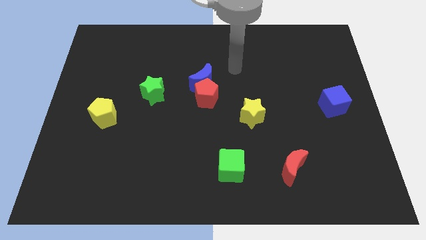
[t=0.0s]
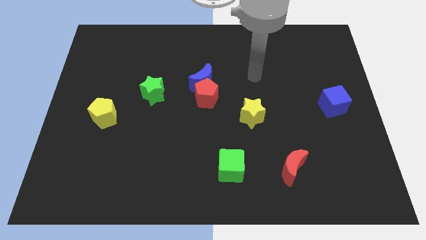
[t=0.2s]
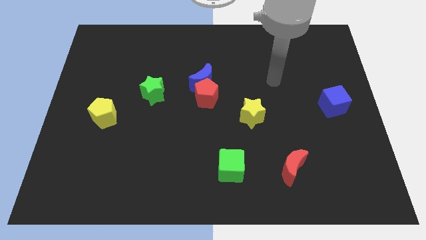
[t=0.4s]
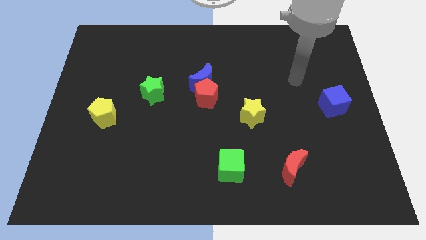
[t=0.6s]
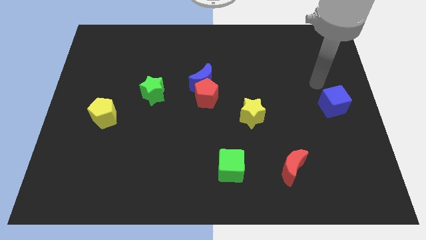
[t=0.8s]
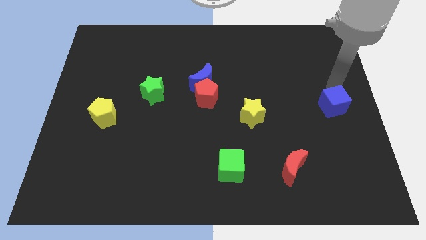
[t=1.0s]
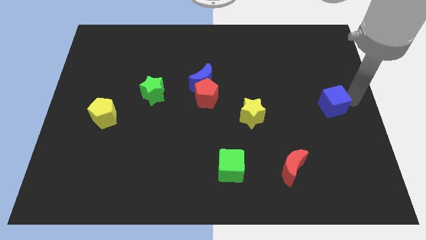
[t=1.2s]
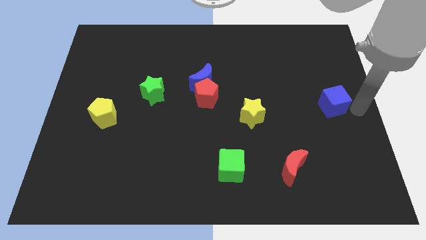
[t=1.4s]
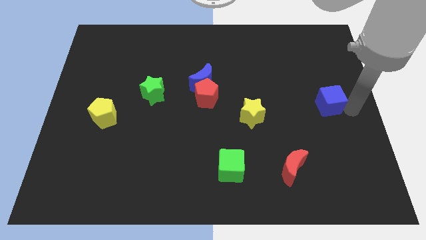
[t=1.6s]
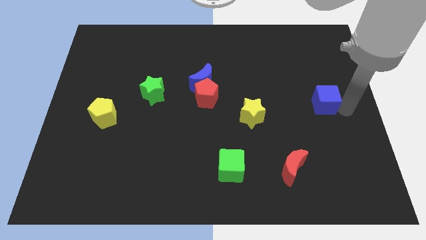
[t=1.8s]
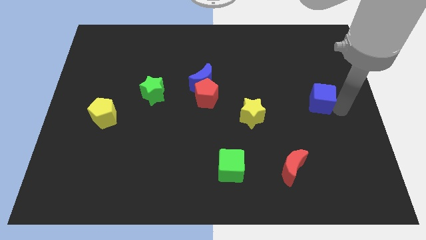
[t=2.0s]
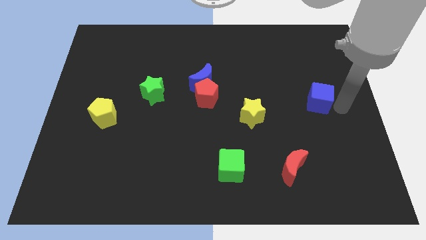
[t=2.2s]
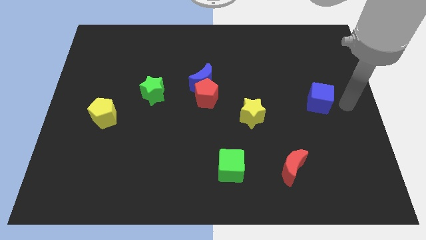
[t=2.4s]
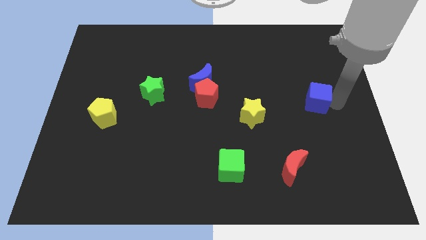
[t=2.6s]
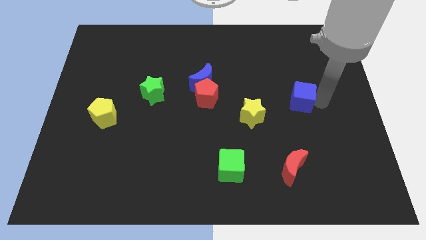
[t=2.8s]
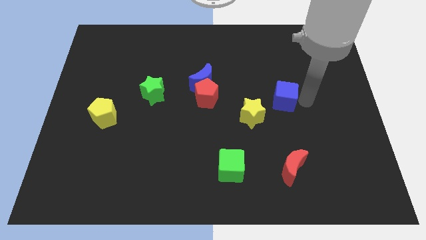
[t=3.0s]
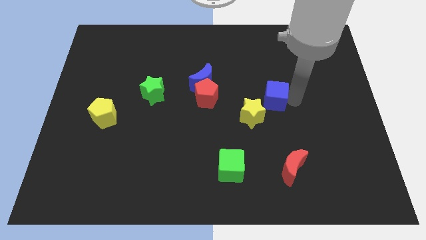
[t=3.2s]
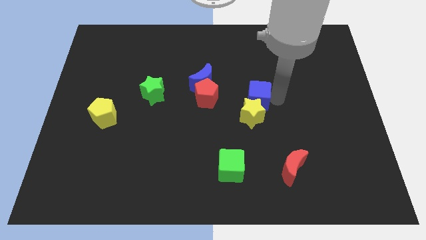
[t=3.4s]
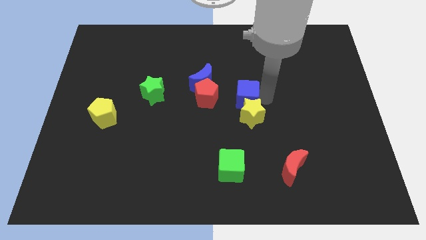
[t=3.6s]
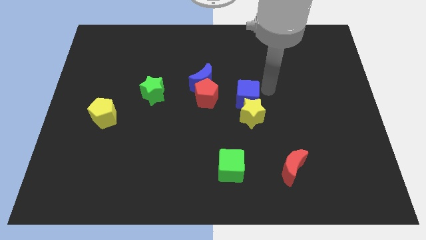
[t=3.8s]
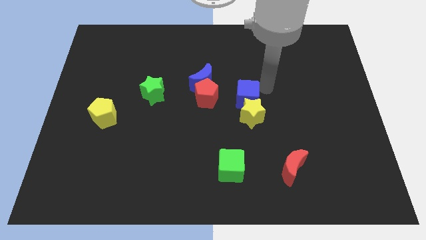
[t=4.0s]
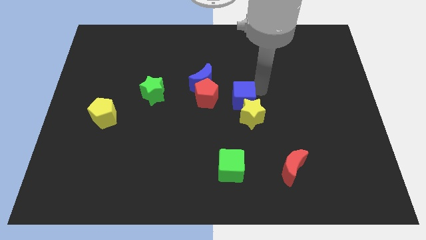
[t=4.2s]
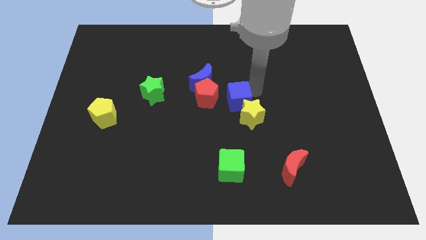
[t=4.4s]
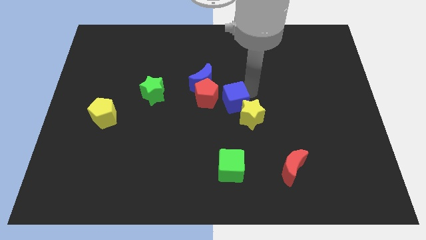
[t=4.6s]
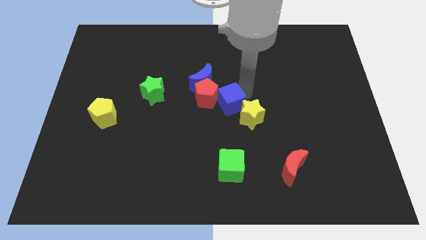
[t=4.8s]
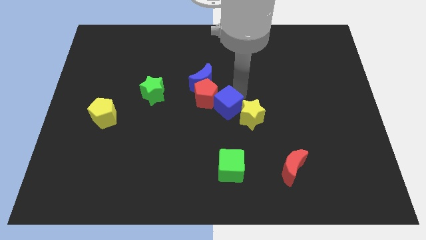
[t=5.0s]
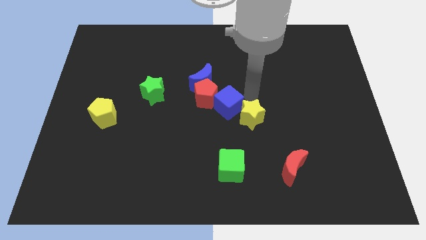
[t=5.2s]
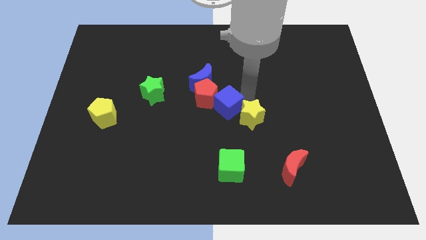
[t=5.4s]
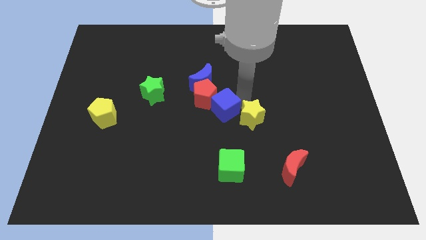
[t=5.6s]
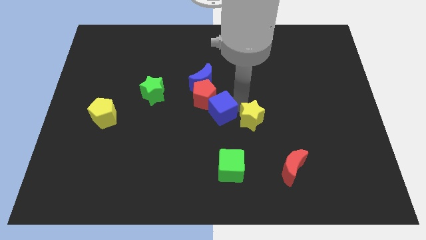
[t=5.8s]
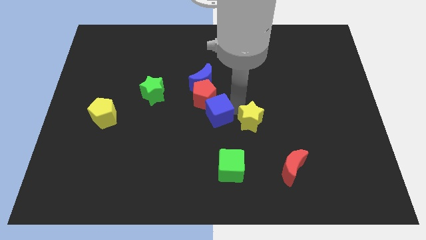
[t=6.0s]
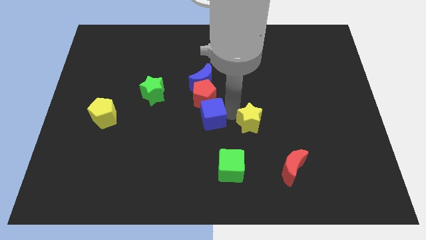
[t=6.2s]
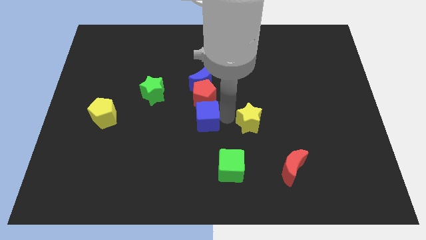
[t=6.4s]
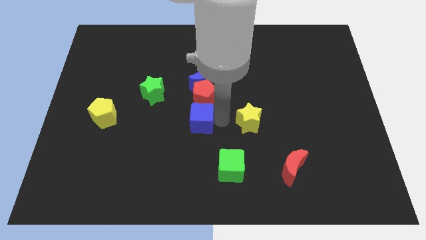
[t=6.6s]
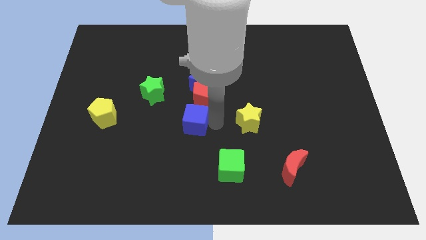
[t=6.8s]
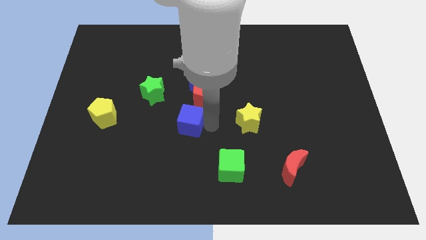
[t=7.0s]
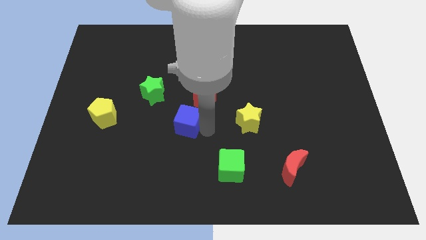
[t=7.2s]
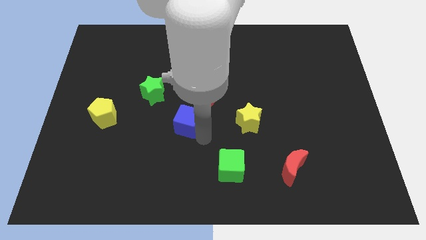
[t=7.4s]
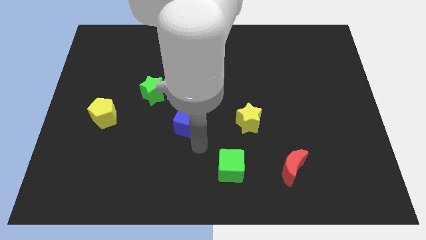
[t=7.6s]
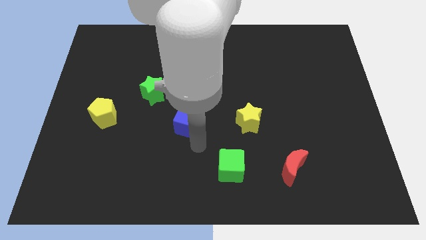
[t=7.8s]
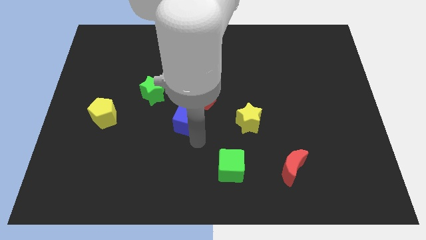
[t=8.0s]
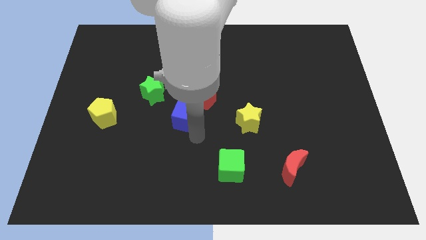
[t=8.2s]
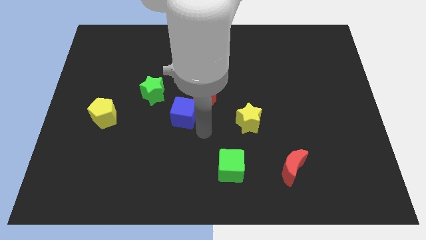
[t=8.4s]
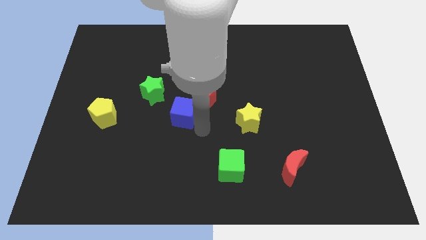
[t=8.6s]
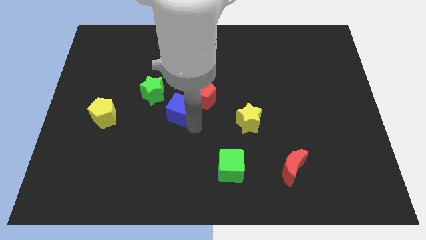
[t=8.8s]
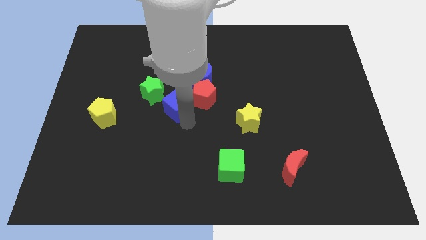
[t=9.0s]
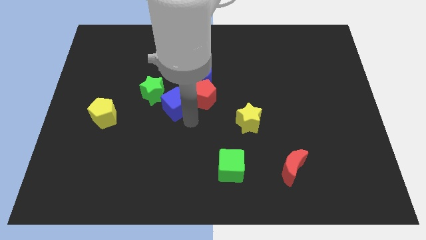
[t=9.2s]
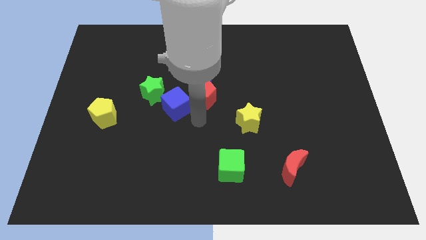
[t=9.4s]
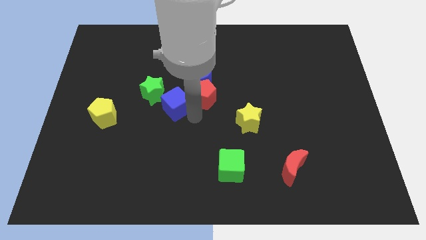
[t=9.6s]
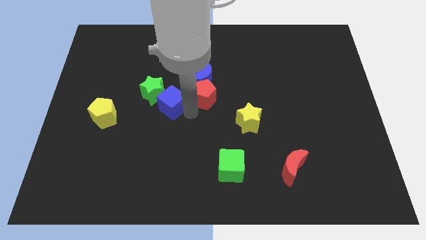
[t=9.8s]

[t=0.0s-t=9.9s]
put the blue cube close to the green star

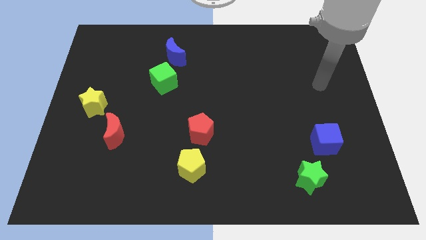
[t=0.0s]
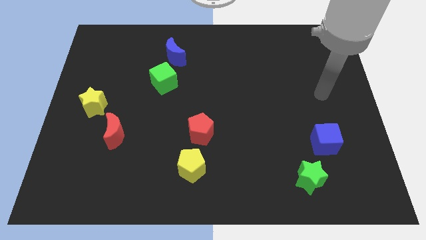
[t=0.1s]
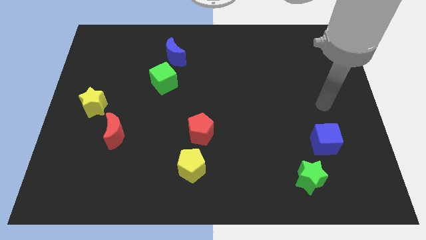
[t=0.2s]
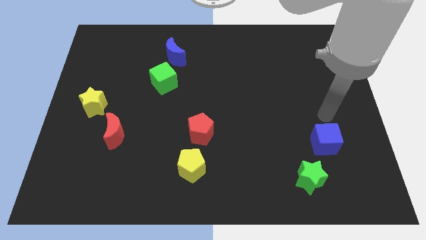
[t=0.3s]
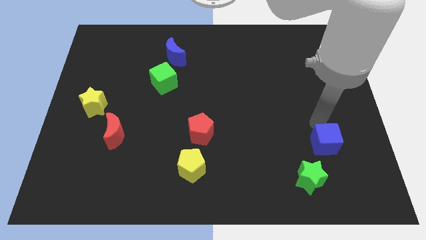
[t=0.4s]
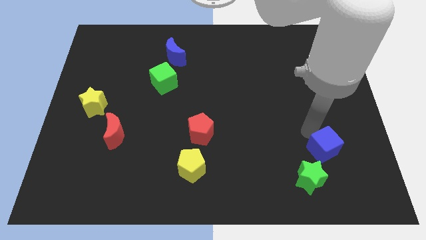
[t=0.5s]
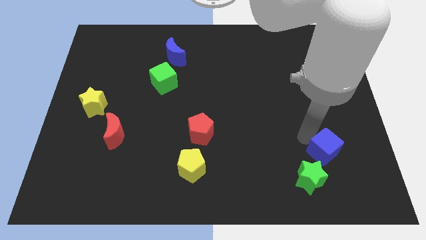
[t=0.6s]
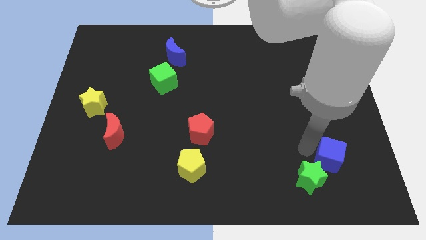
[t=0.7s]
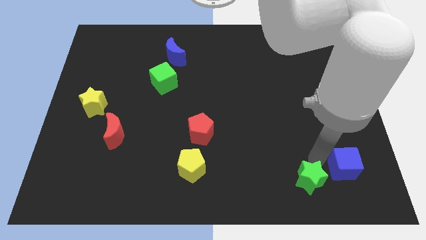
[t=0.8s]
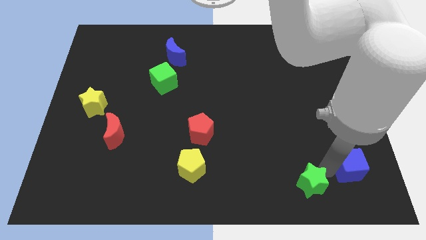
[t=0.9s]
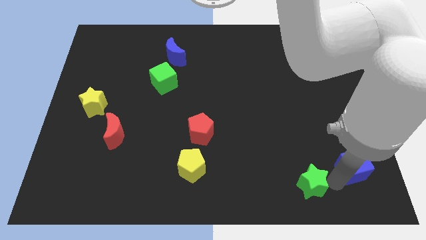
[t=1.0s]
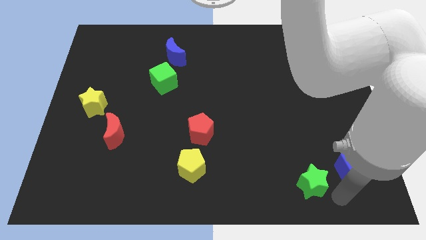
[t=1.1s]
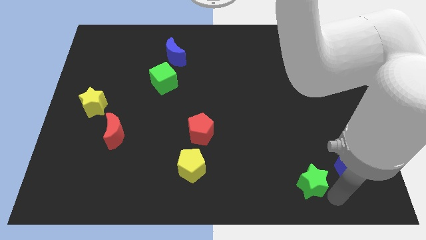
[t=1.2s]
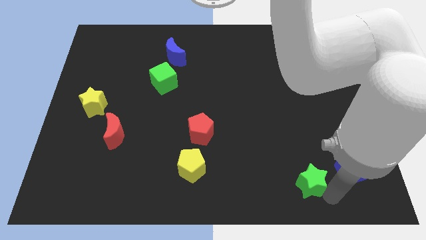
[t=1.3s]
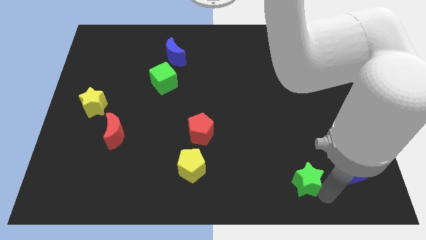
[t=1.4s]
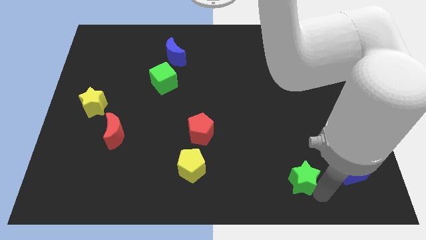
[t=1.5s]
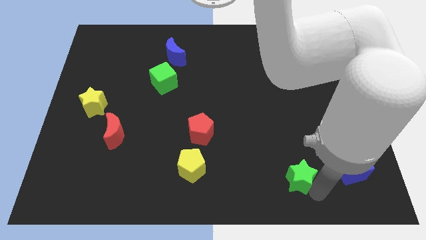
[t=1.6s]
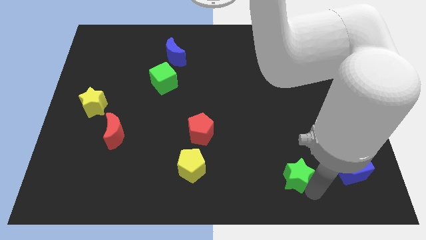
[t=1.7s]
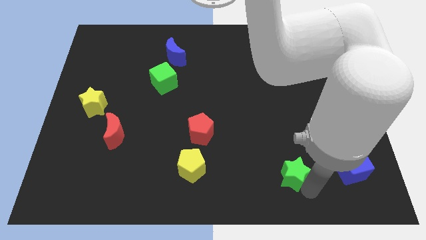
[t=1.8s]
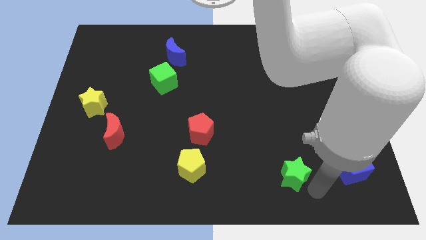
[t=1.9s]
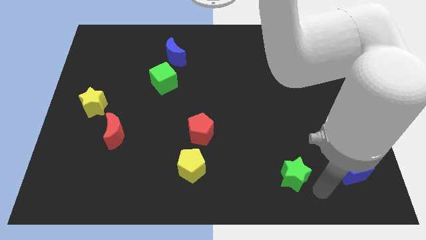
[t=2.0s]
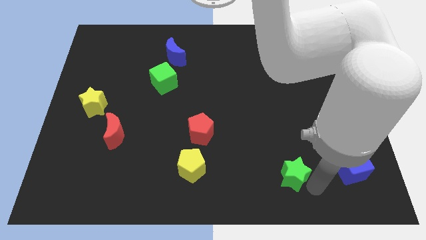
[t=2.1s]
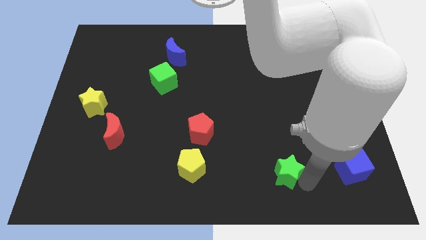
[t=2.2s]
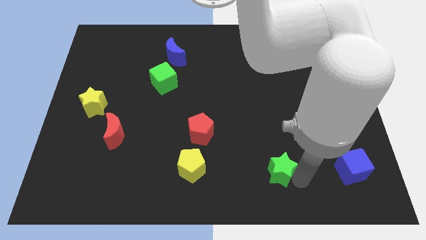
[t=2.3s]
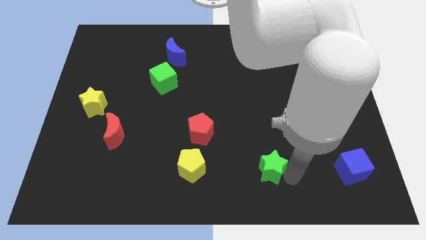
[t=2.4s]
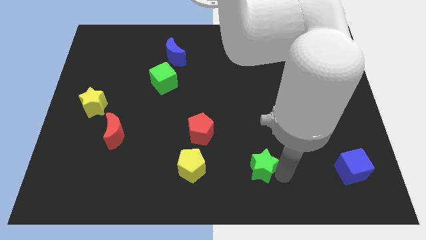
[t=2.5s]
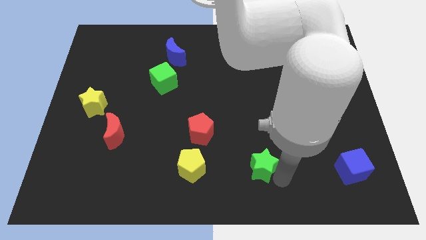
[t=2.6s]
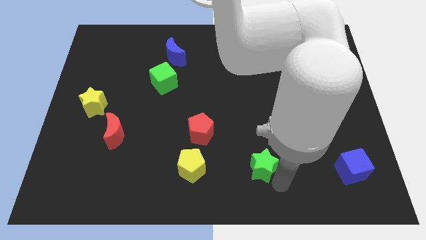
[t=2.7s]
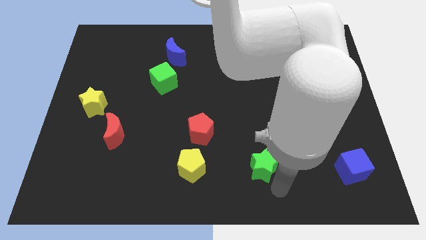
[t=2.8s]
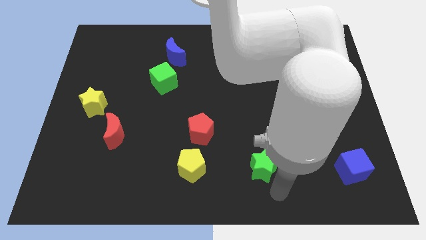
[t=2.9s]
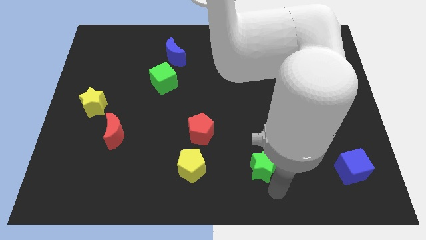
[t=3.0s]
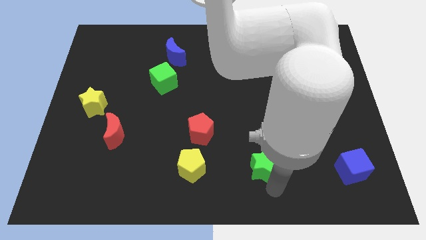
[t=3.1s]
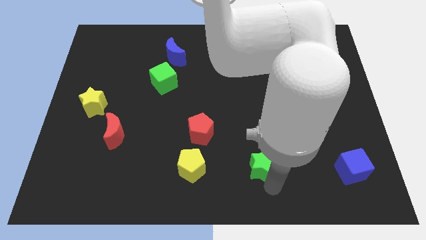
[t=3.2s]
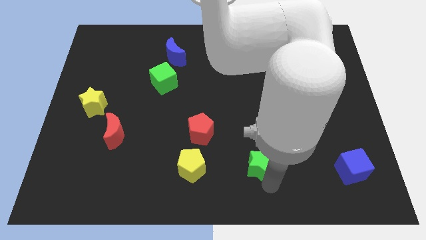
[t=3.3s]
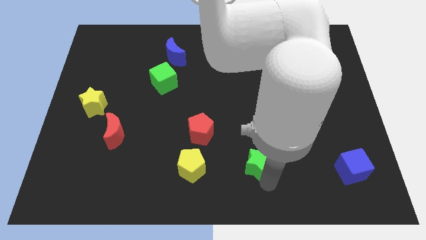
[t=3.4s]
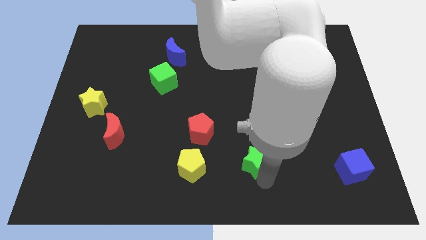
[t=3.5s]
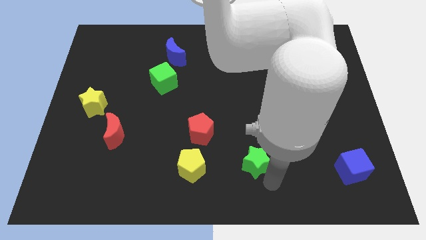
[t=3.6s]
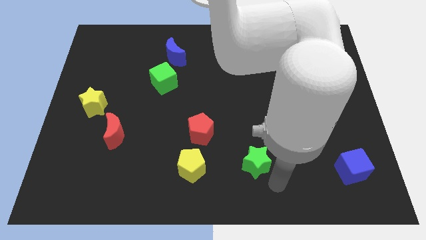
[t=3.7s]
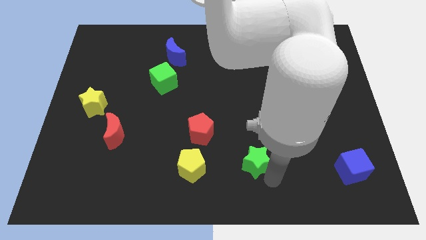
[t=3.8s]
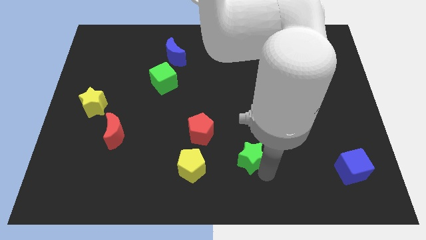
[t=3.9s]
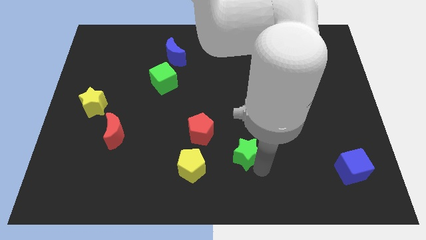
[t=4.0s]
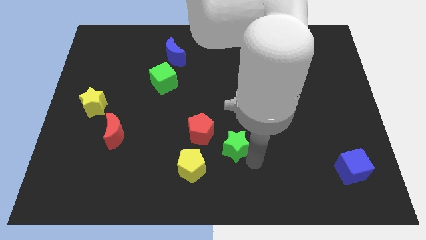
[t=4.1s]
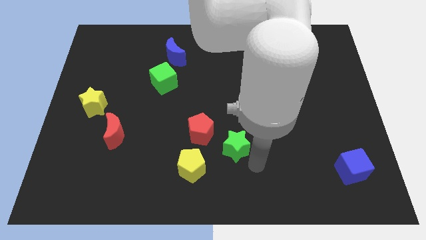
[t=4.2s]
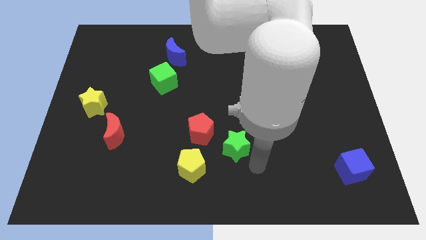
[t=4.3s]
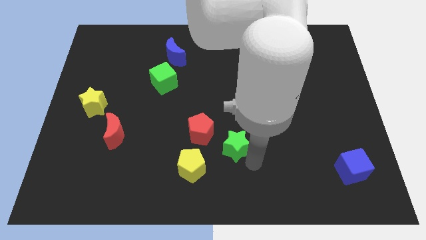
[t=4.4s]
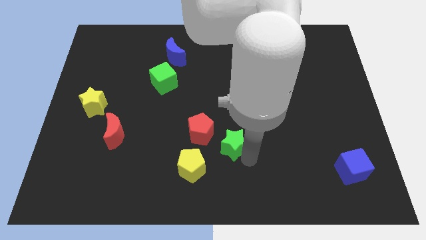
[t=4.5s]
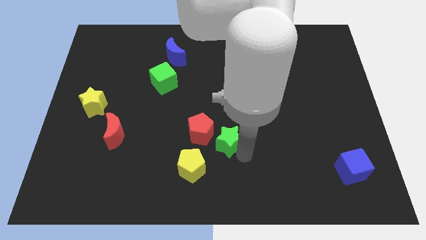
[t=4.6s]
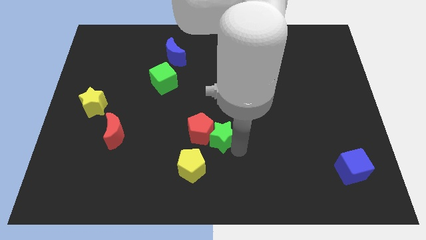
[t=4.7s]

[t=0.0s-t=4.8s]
put the green star to the red pentagon
